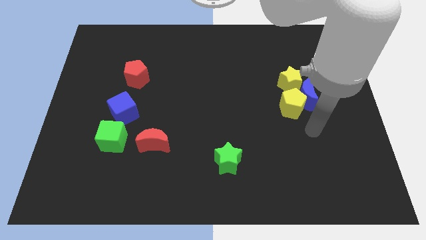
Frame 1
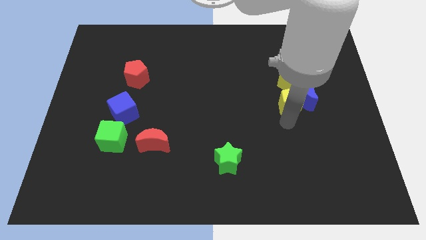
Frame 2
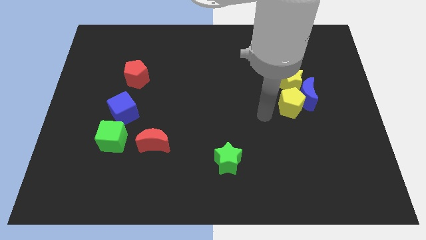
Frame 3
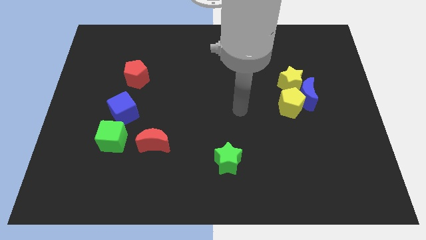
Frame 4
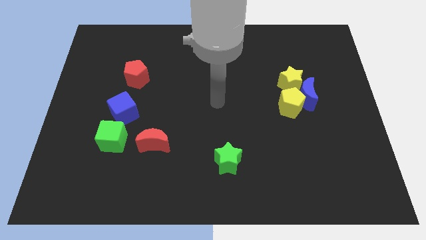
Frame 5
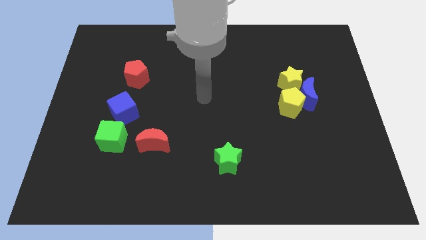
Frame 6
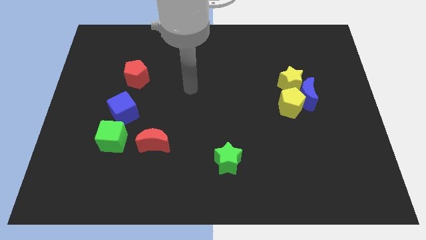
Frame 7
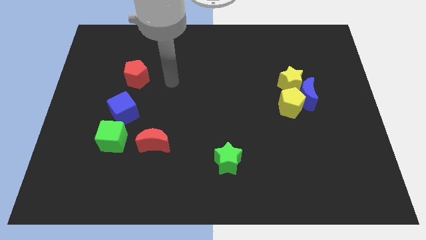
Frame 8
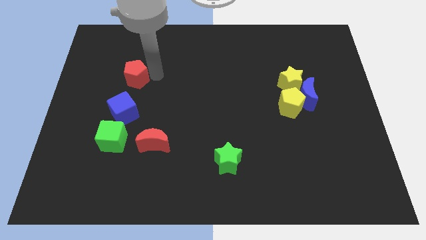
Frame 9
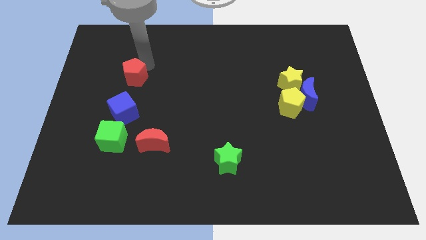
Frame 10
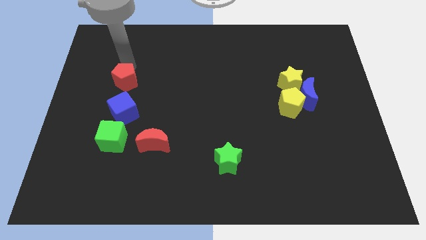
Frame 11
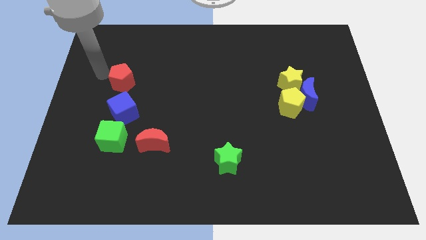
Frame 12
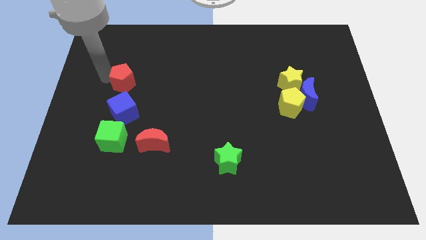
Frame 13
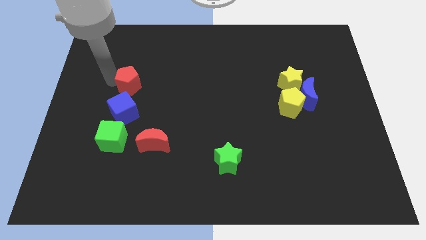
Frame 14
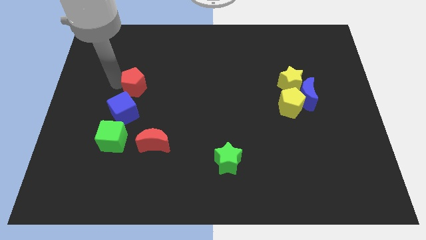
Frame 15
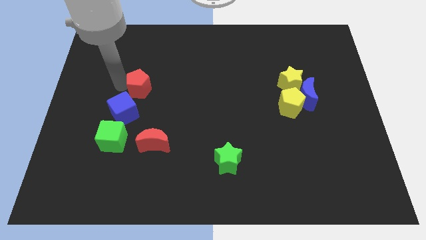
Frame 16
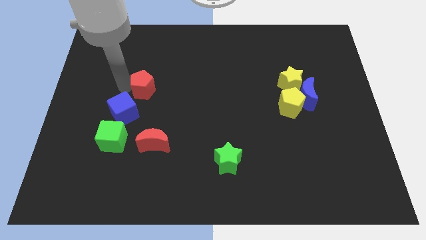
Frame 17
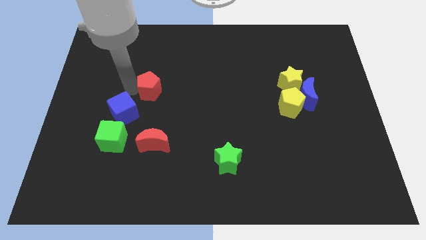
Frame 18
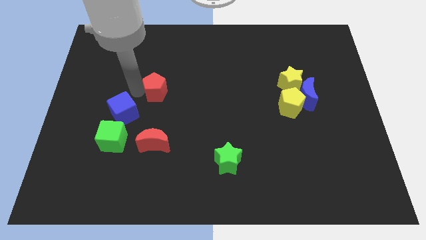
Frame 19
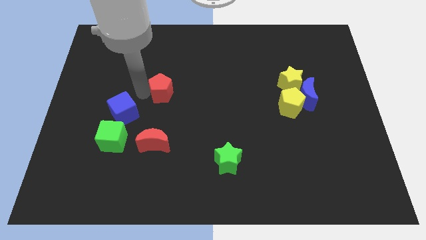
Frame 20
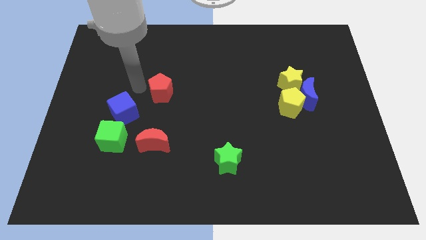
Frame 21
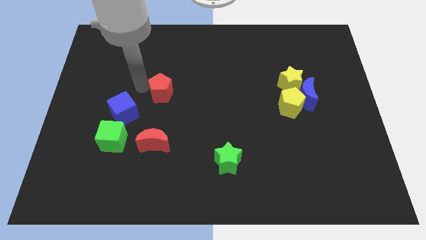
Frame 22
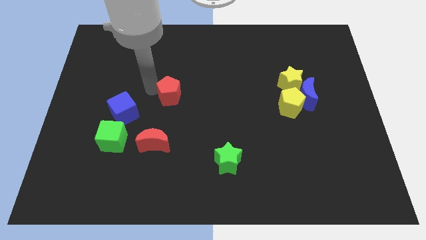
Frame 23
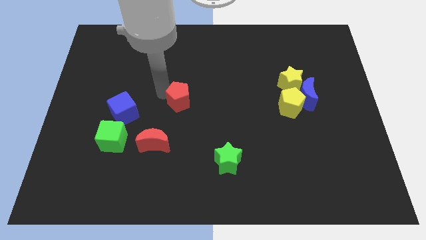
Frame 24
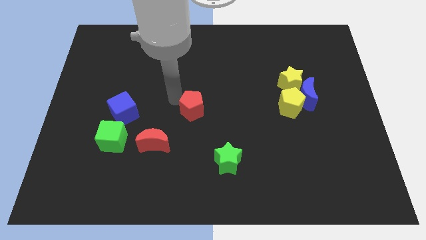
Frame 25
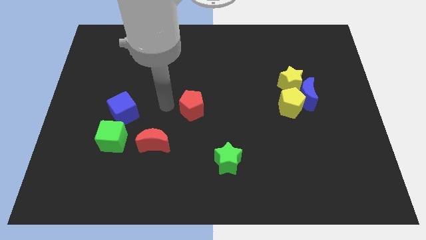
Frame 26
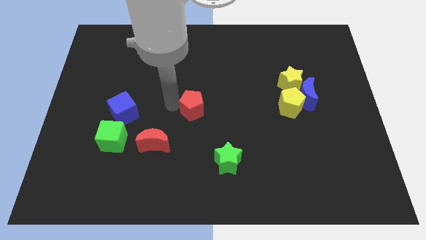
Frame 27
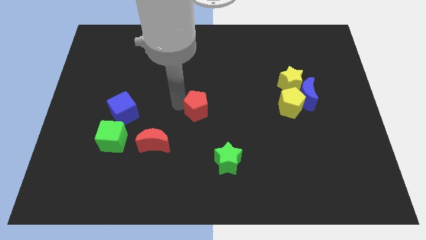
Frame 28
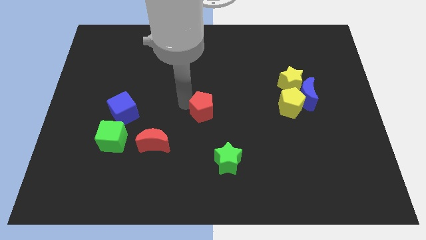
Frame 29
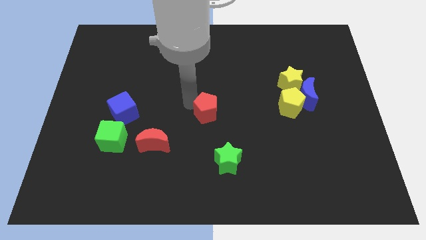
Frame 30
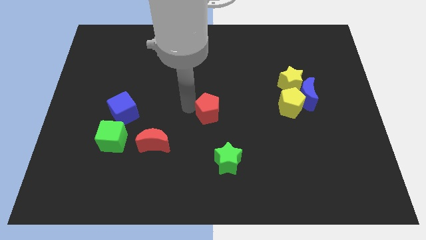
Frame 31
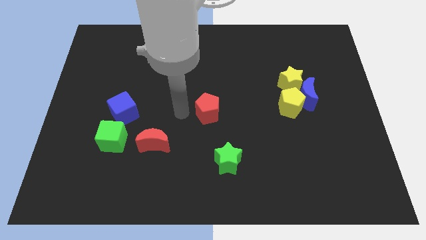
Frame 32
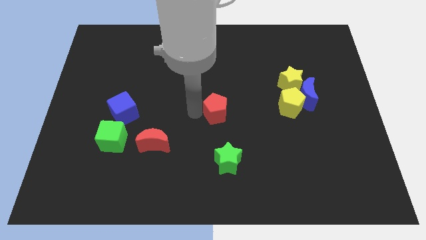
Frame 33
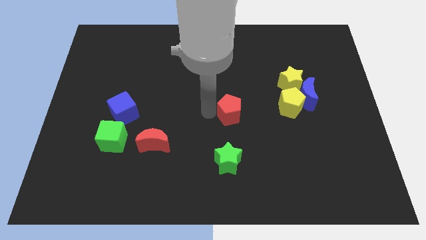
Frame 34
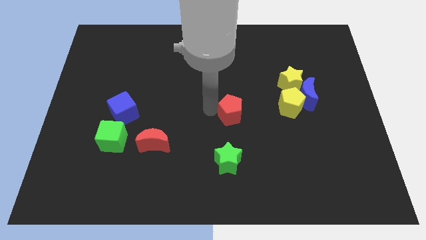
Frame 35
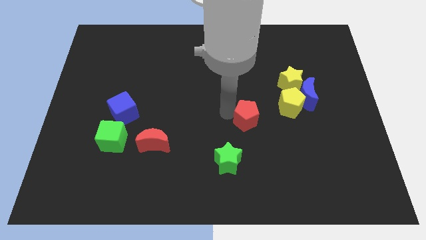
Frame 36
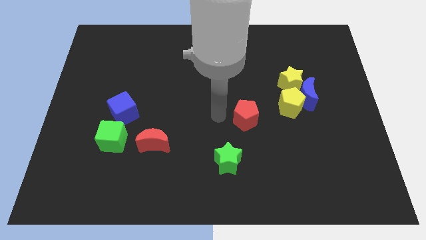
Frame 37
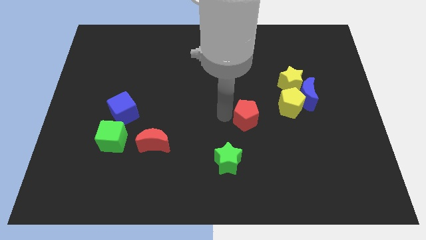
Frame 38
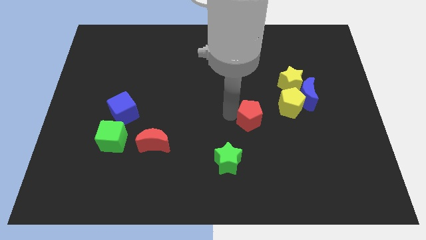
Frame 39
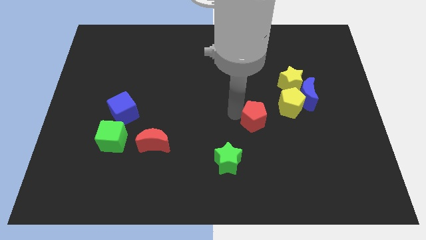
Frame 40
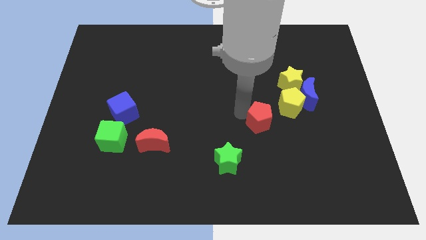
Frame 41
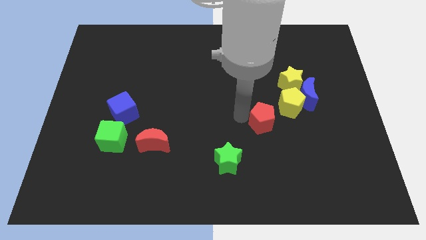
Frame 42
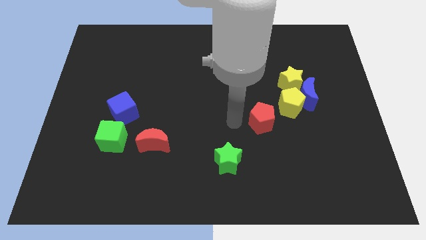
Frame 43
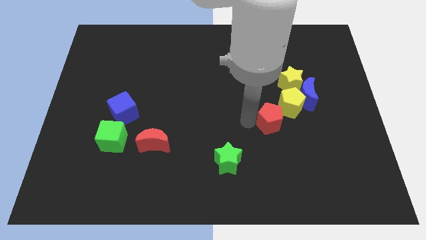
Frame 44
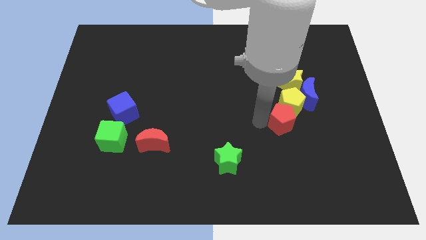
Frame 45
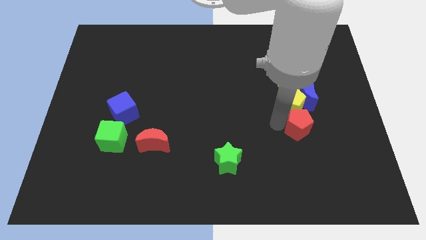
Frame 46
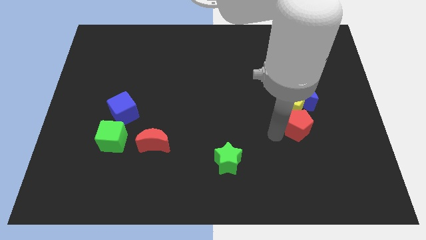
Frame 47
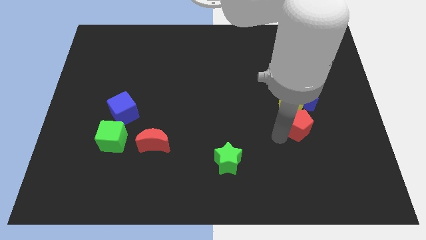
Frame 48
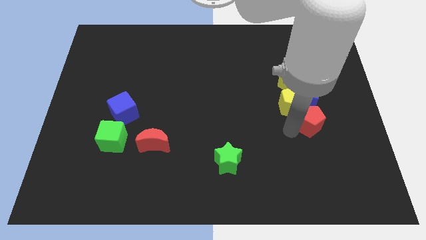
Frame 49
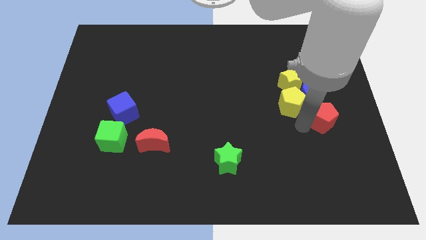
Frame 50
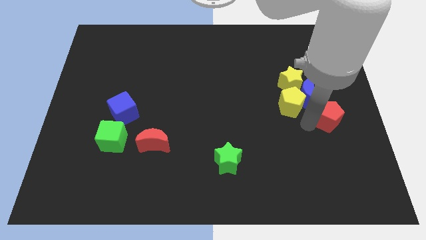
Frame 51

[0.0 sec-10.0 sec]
slide the red pentagon to the center right

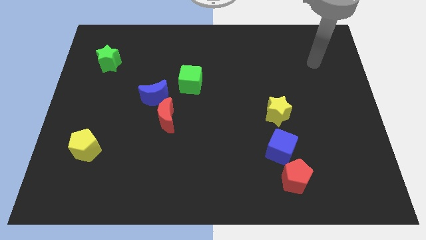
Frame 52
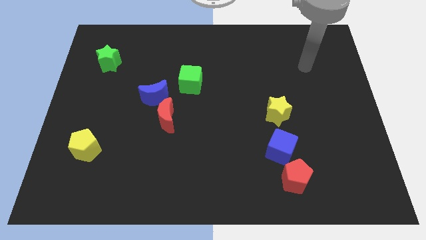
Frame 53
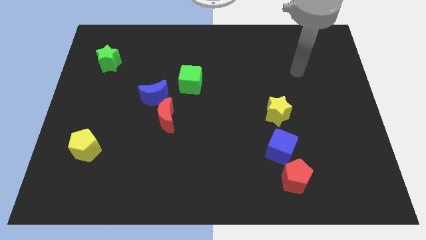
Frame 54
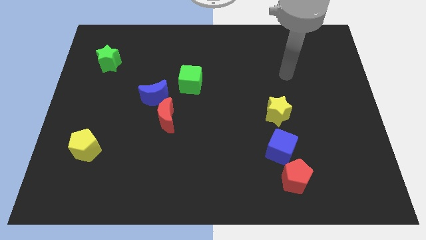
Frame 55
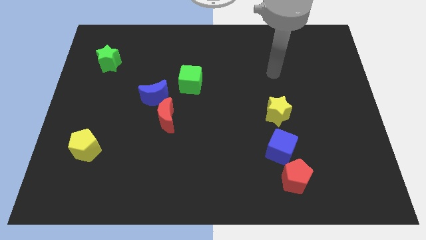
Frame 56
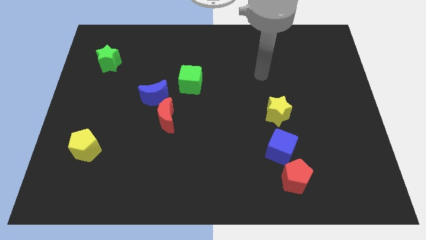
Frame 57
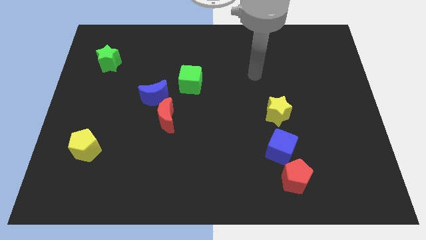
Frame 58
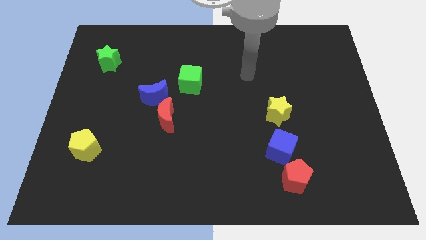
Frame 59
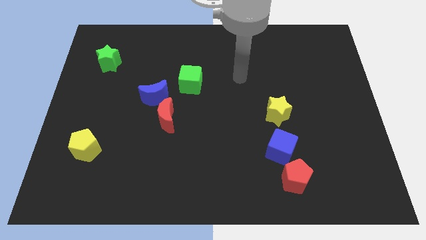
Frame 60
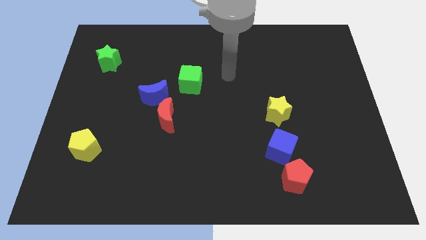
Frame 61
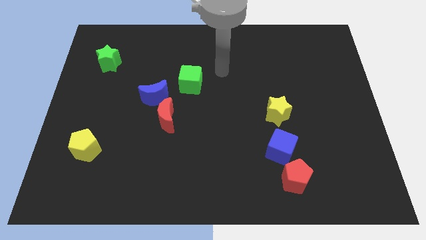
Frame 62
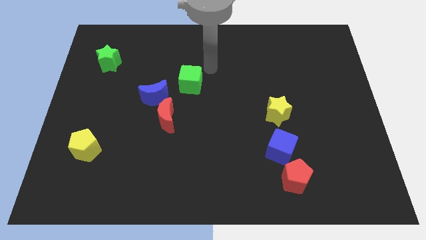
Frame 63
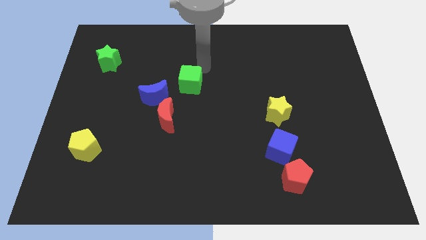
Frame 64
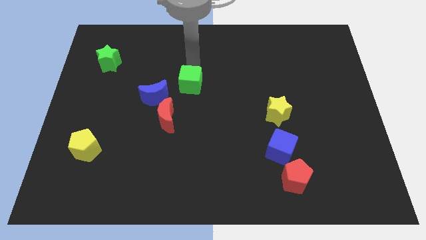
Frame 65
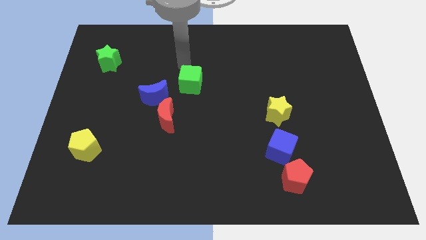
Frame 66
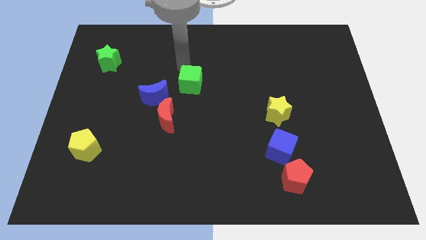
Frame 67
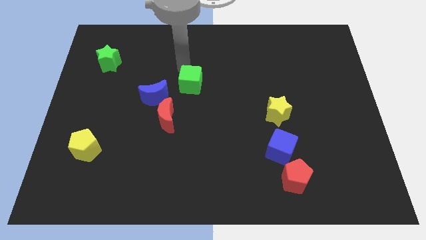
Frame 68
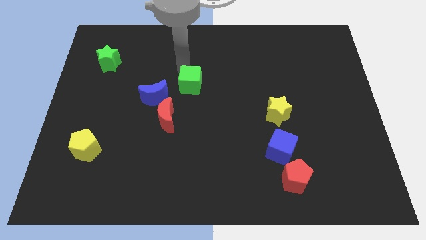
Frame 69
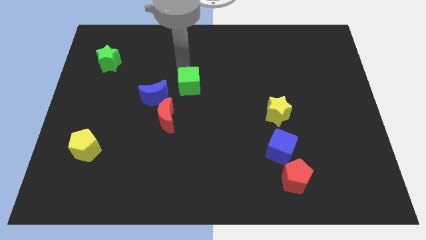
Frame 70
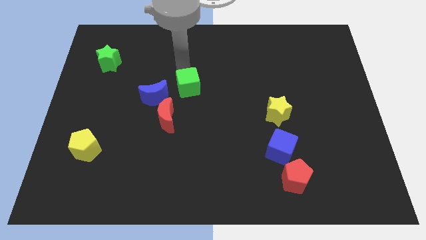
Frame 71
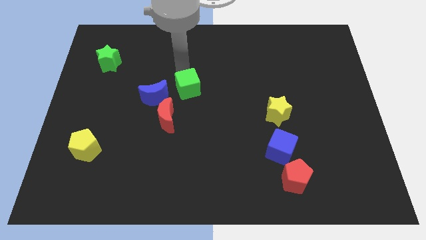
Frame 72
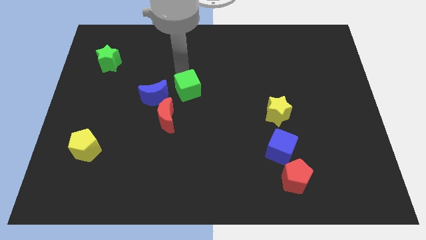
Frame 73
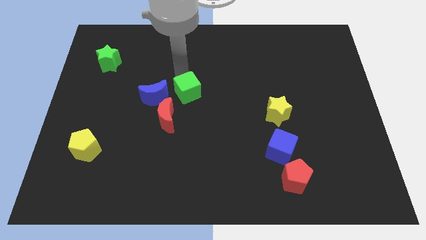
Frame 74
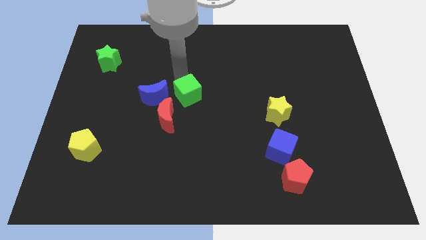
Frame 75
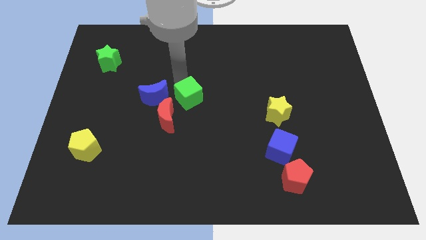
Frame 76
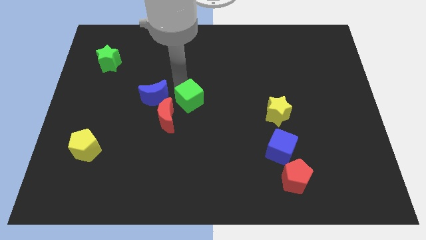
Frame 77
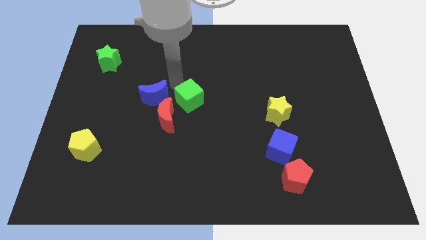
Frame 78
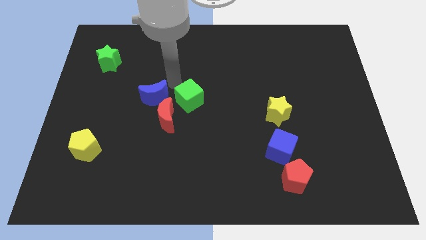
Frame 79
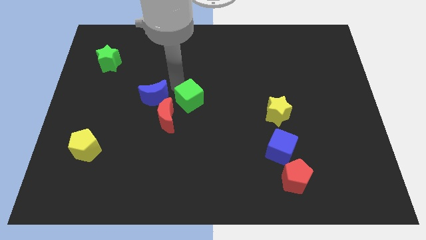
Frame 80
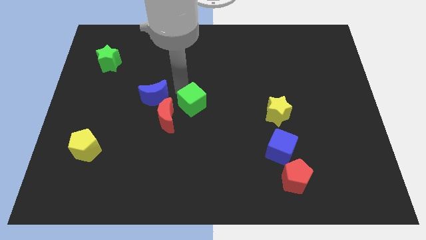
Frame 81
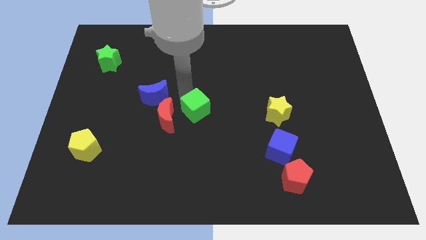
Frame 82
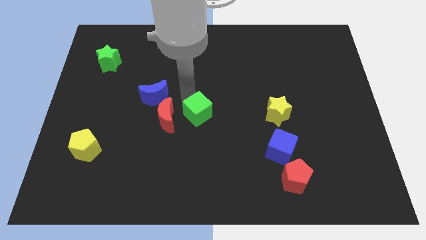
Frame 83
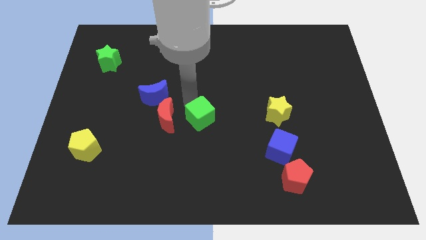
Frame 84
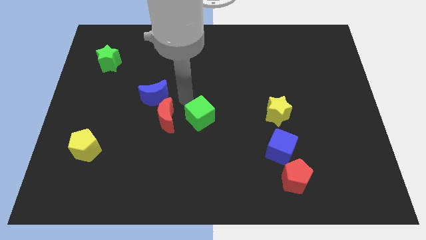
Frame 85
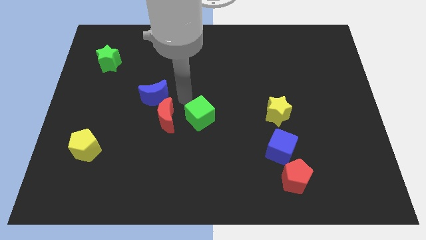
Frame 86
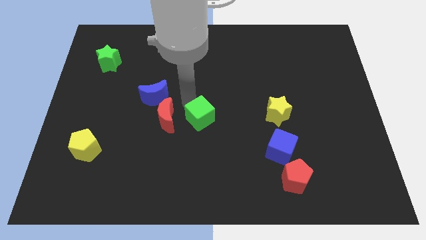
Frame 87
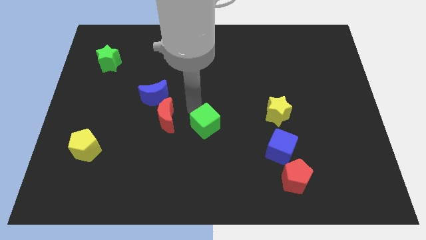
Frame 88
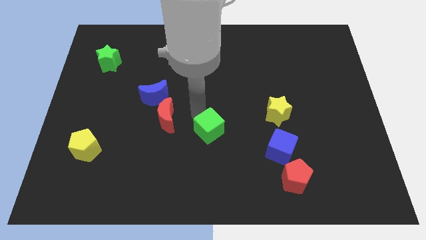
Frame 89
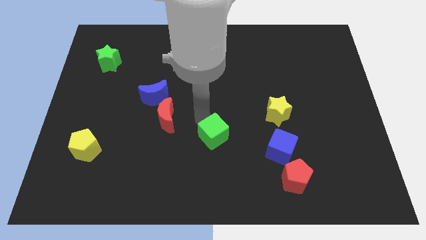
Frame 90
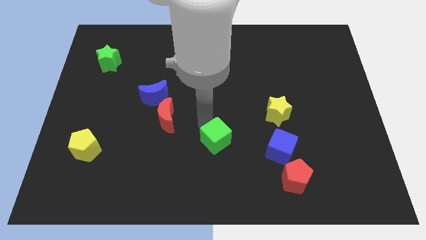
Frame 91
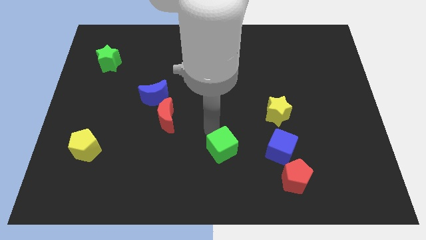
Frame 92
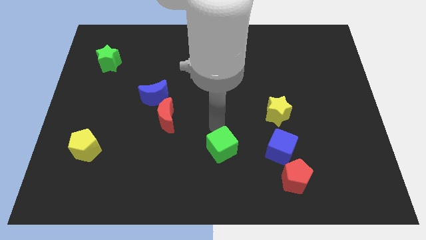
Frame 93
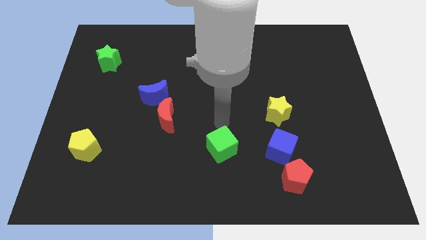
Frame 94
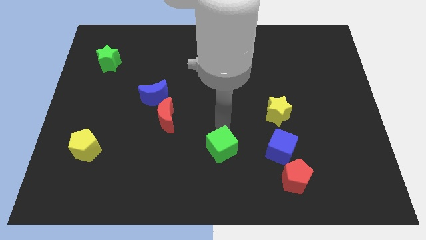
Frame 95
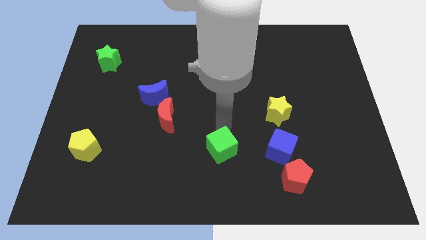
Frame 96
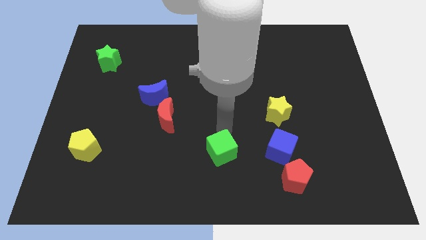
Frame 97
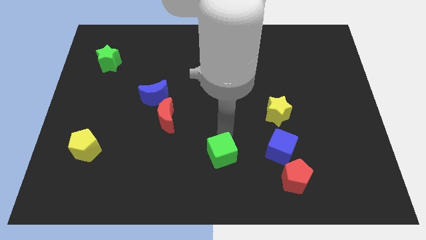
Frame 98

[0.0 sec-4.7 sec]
slide the green cube to the bottom
